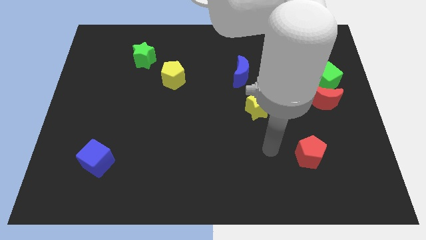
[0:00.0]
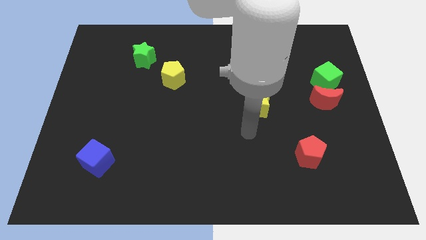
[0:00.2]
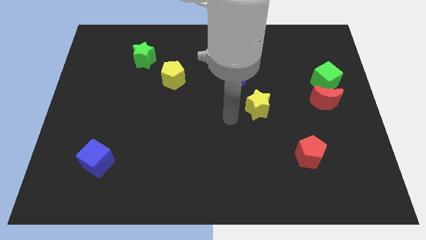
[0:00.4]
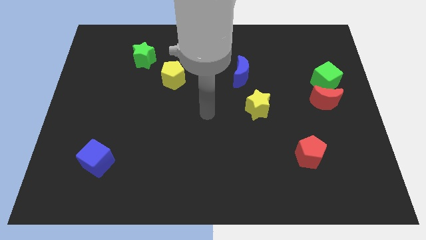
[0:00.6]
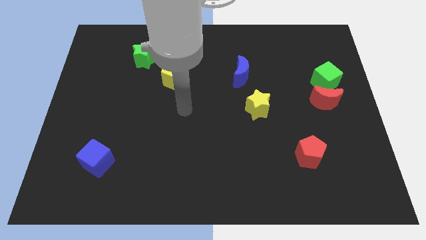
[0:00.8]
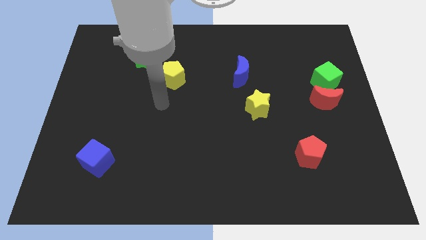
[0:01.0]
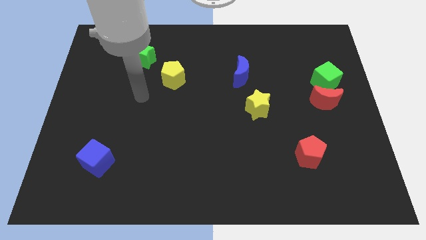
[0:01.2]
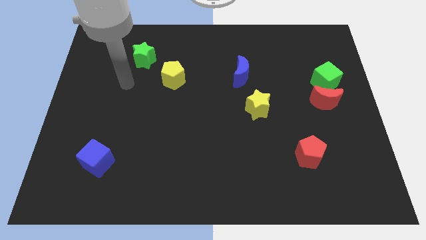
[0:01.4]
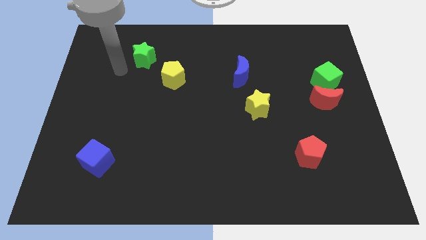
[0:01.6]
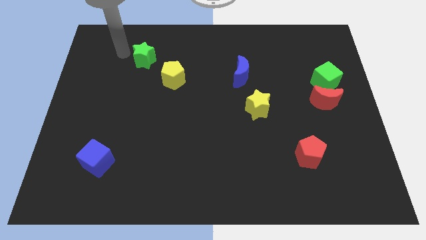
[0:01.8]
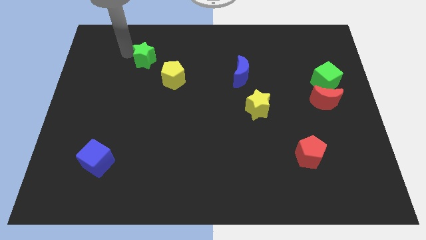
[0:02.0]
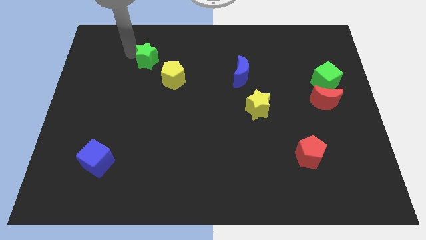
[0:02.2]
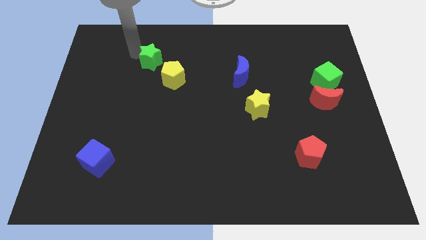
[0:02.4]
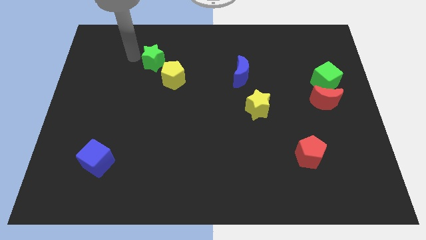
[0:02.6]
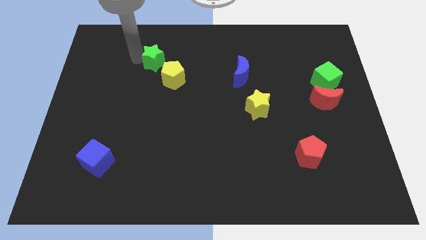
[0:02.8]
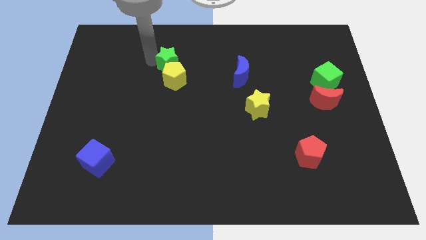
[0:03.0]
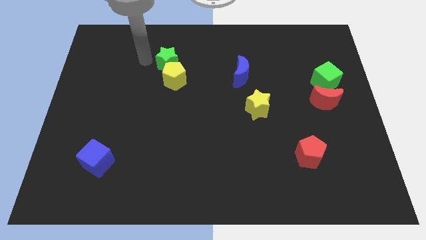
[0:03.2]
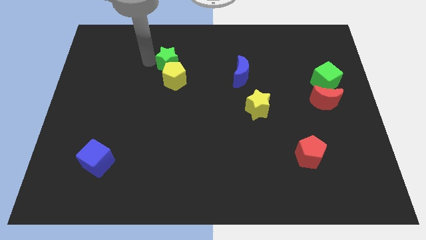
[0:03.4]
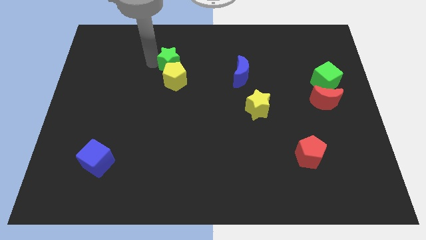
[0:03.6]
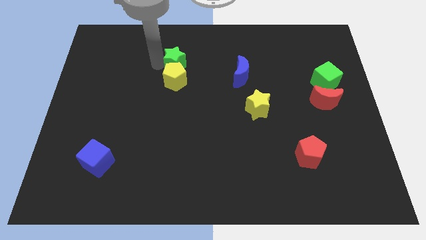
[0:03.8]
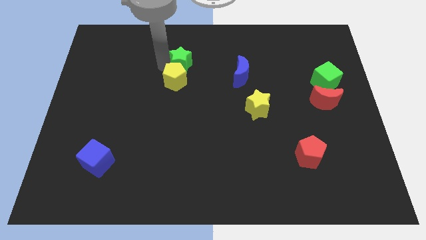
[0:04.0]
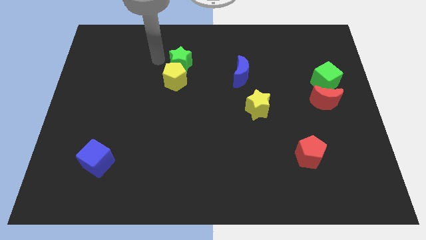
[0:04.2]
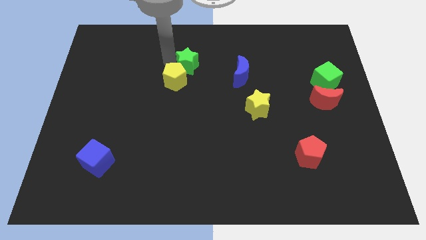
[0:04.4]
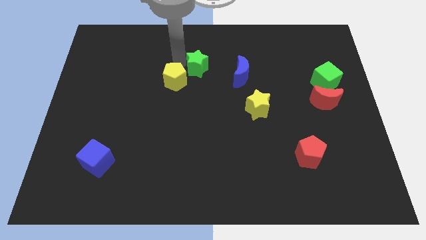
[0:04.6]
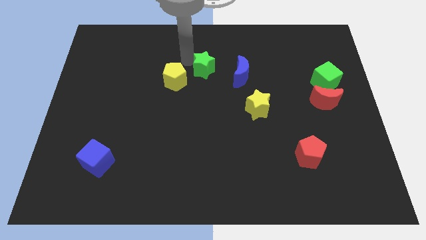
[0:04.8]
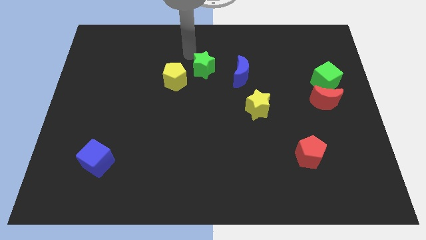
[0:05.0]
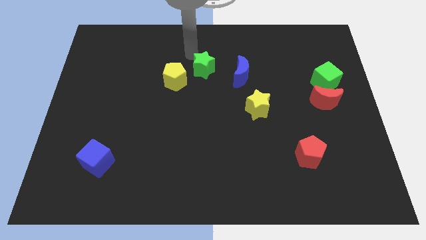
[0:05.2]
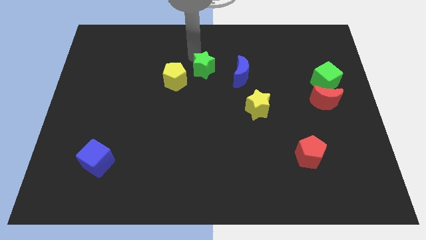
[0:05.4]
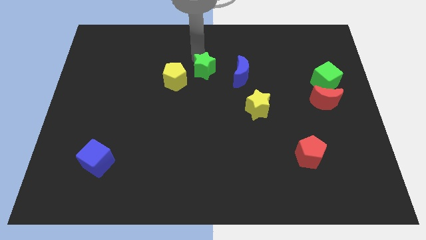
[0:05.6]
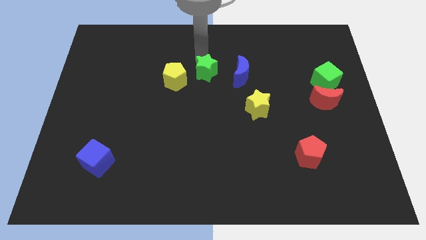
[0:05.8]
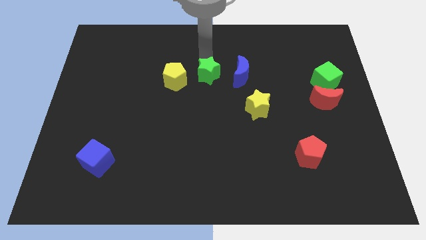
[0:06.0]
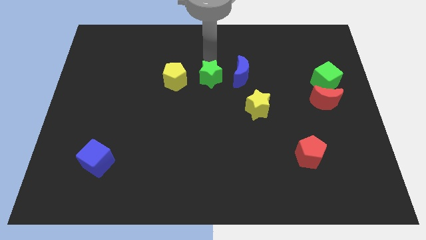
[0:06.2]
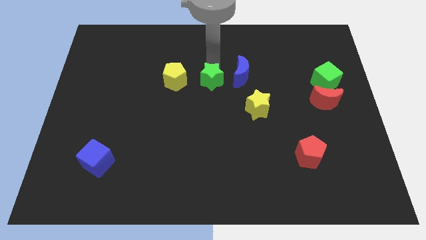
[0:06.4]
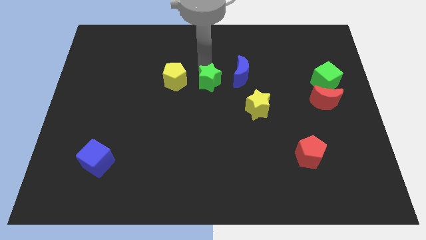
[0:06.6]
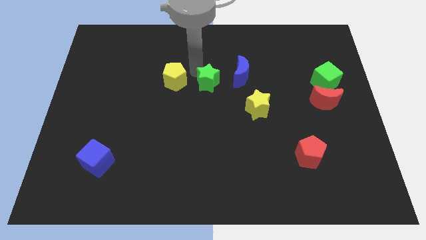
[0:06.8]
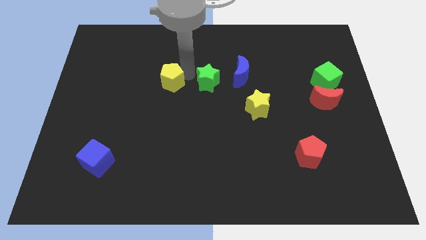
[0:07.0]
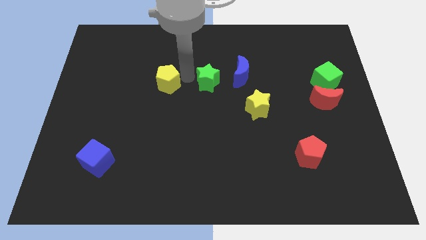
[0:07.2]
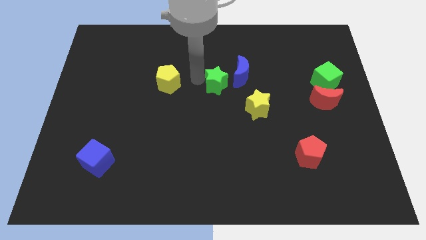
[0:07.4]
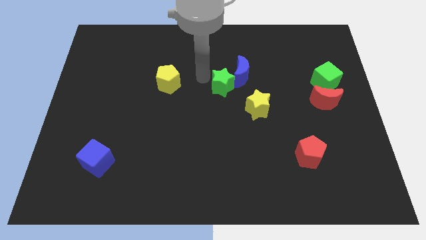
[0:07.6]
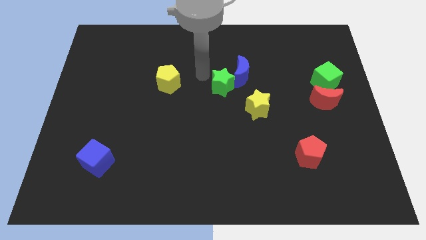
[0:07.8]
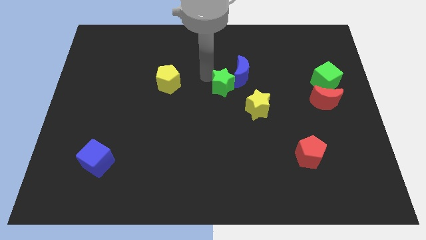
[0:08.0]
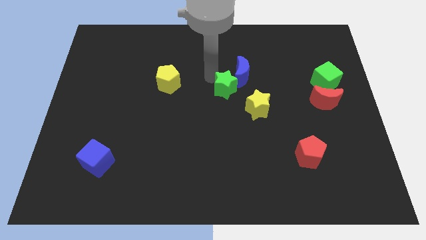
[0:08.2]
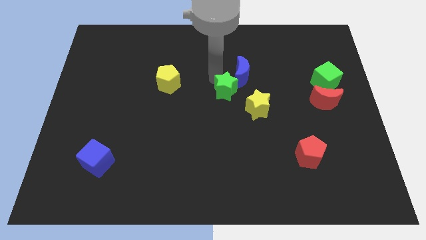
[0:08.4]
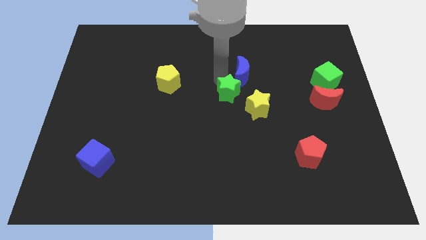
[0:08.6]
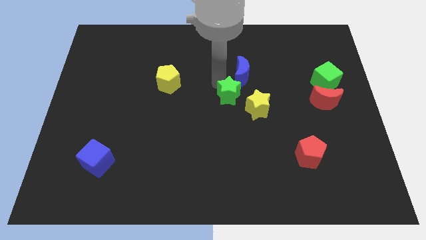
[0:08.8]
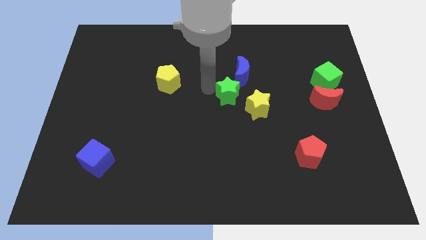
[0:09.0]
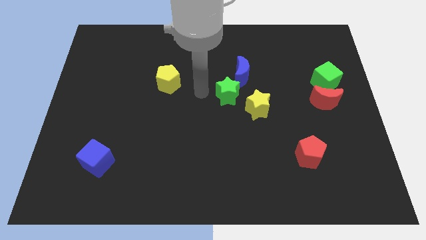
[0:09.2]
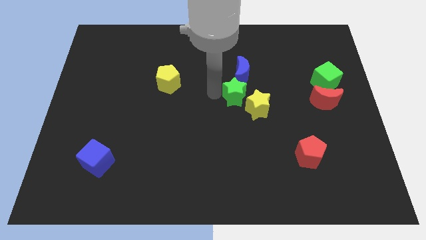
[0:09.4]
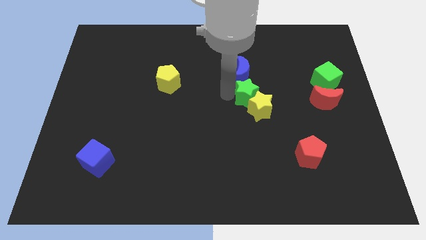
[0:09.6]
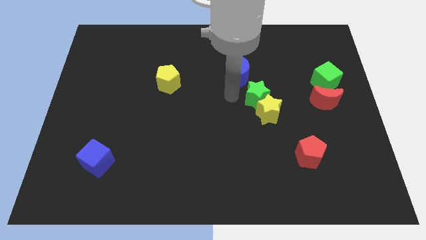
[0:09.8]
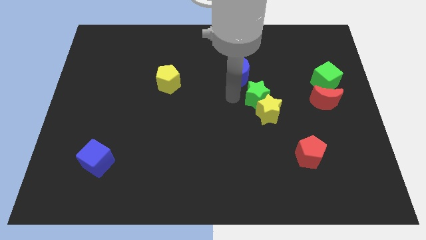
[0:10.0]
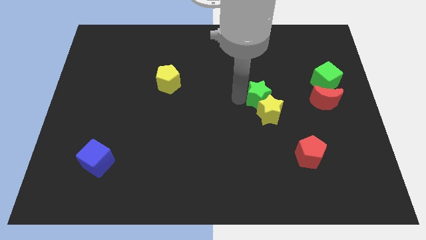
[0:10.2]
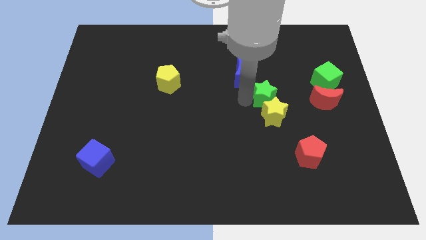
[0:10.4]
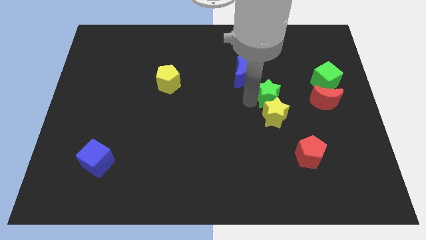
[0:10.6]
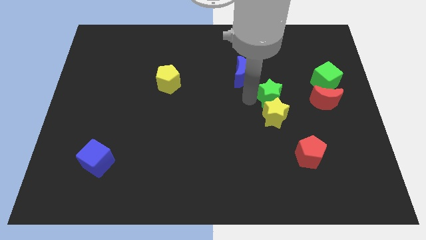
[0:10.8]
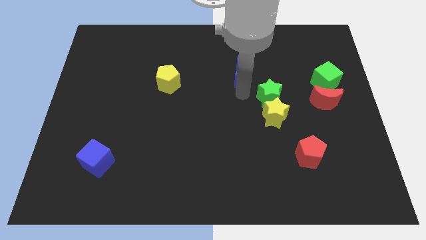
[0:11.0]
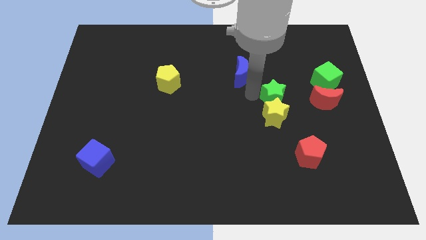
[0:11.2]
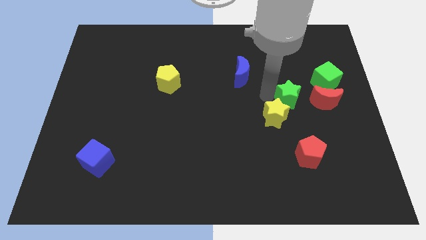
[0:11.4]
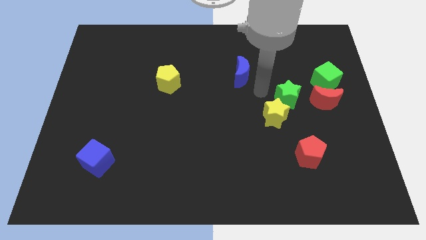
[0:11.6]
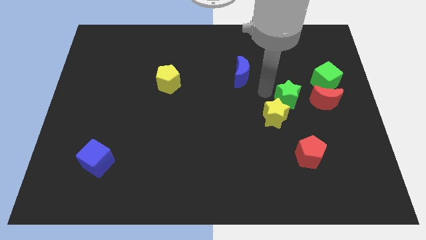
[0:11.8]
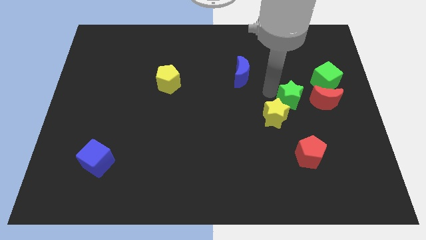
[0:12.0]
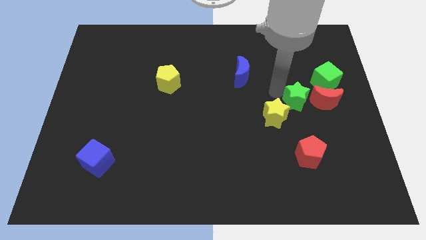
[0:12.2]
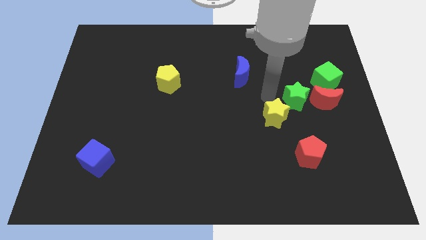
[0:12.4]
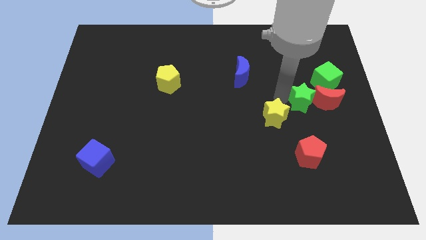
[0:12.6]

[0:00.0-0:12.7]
slide the green star towards the red moon
